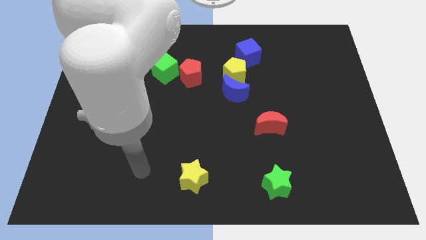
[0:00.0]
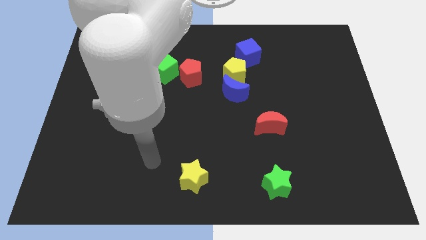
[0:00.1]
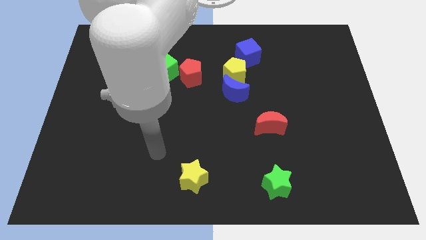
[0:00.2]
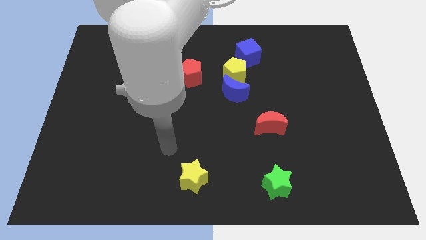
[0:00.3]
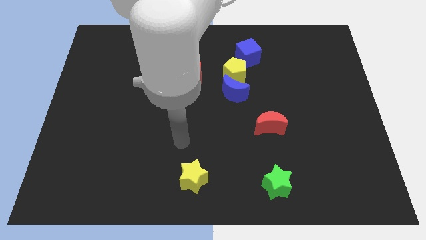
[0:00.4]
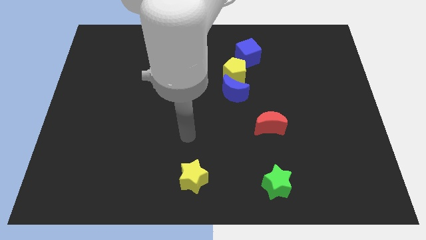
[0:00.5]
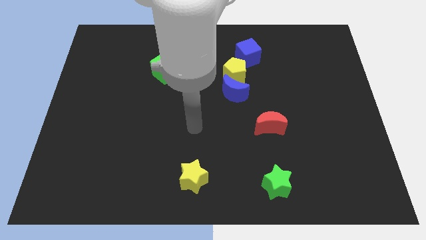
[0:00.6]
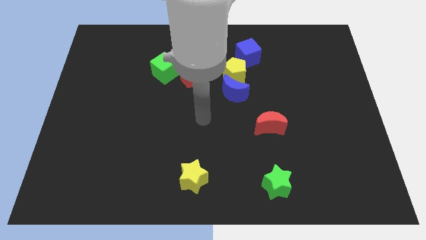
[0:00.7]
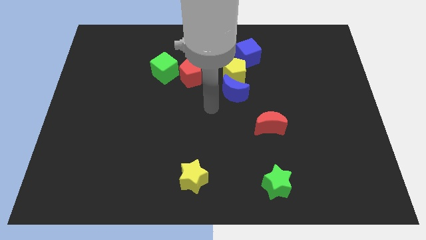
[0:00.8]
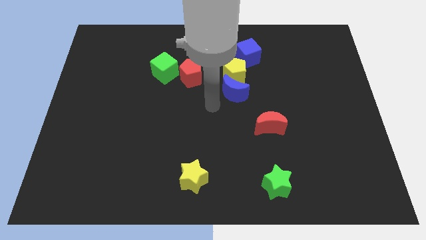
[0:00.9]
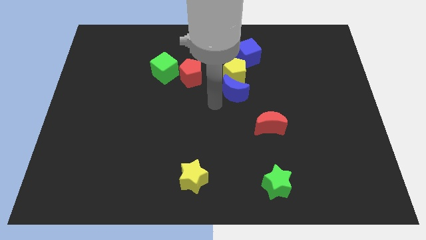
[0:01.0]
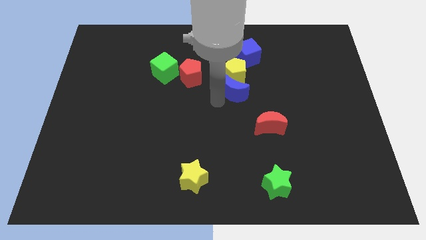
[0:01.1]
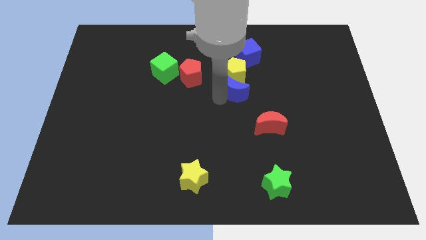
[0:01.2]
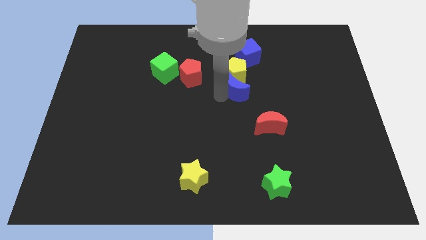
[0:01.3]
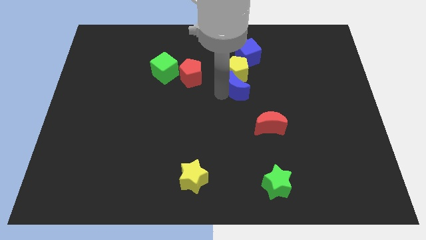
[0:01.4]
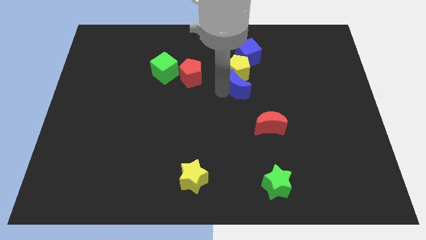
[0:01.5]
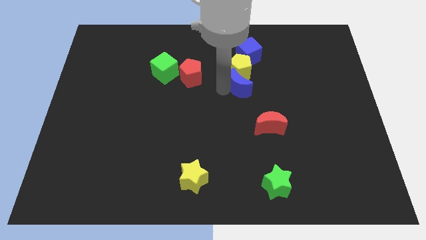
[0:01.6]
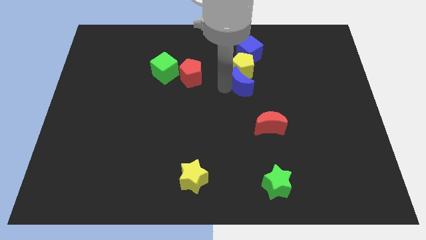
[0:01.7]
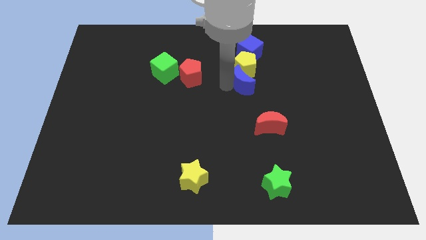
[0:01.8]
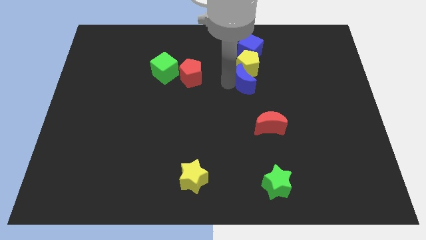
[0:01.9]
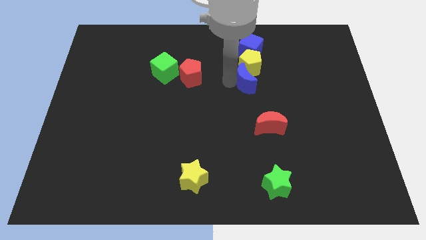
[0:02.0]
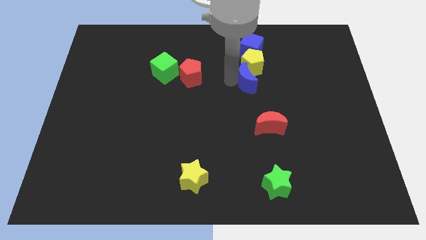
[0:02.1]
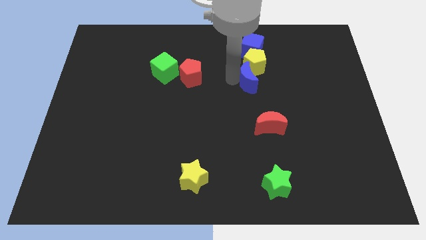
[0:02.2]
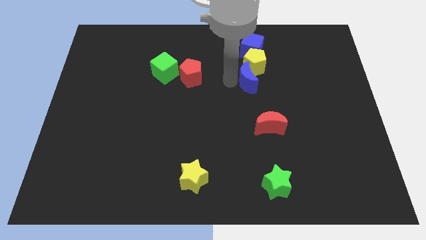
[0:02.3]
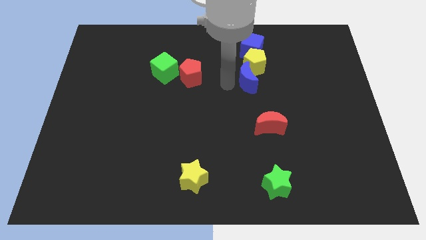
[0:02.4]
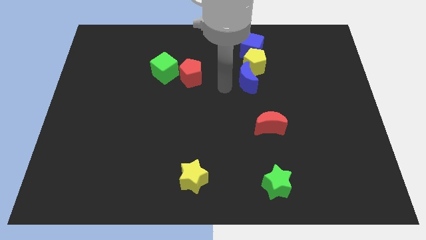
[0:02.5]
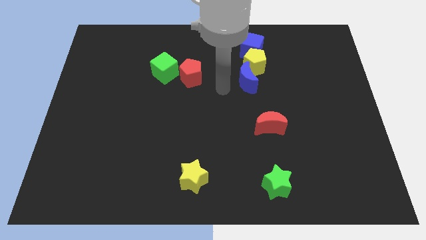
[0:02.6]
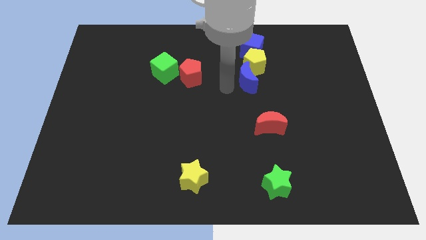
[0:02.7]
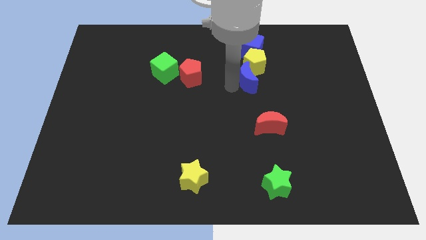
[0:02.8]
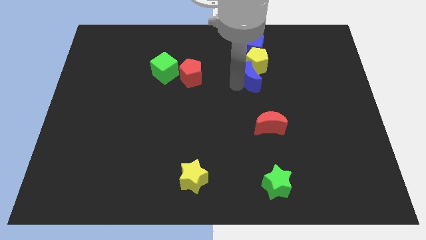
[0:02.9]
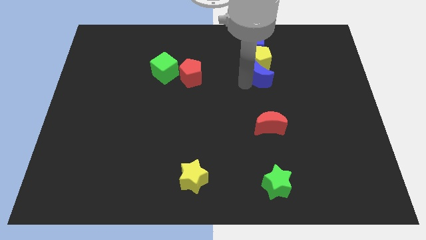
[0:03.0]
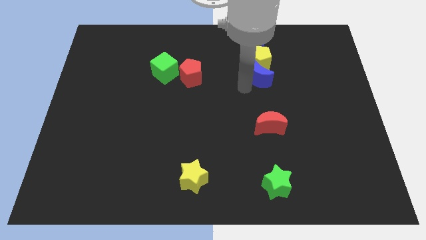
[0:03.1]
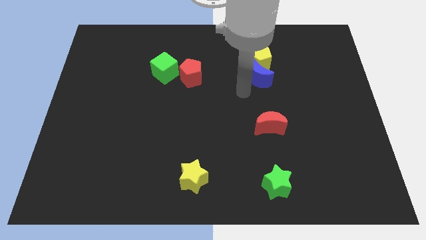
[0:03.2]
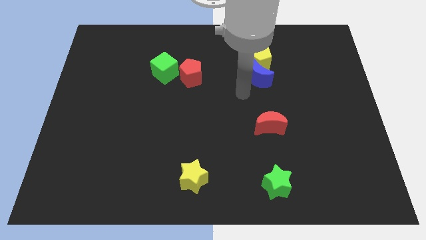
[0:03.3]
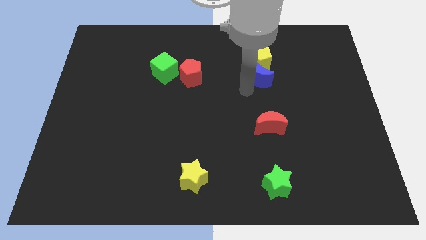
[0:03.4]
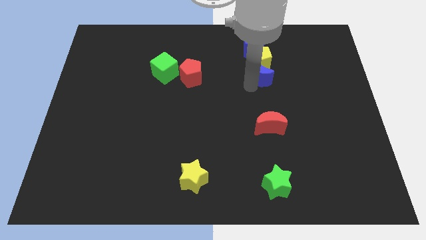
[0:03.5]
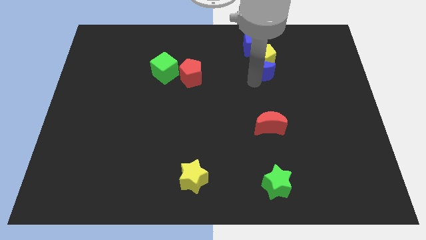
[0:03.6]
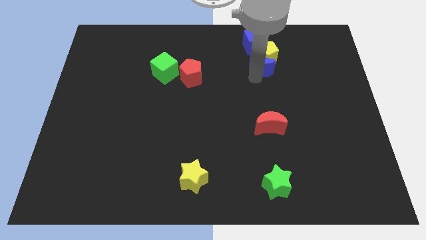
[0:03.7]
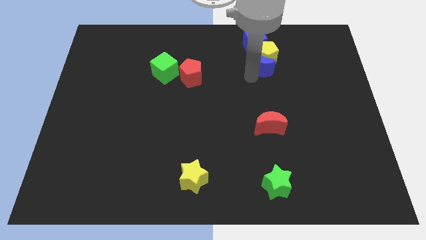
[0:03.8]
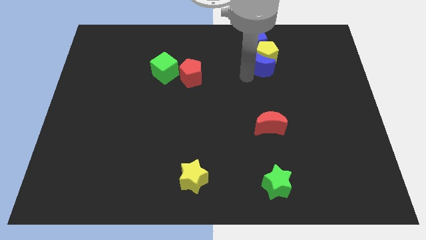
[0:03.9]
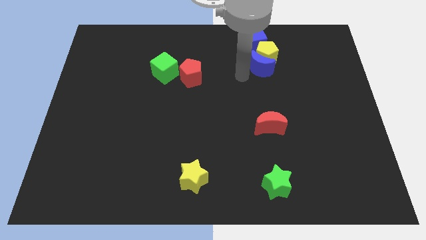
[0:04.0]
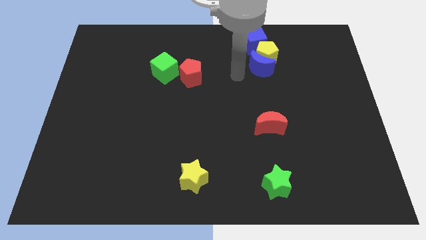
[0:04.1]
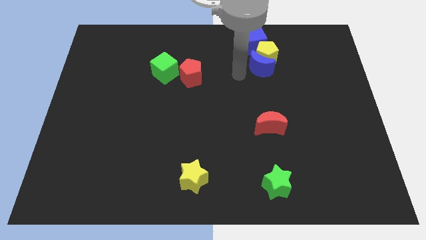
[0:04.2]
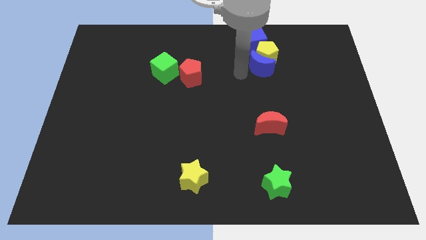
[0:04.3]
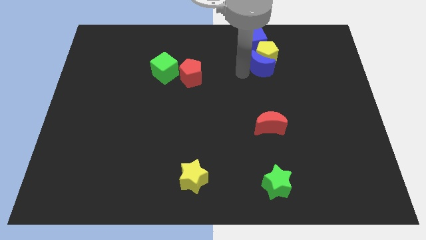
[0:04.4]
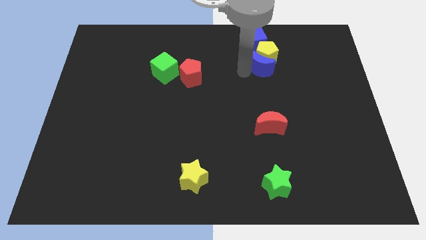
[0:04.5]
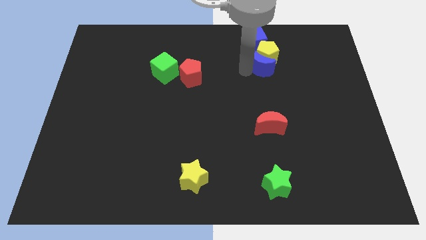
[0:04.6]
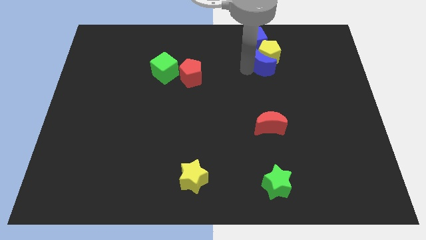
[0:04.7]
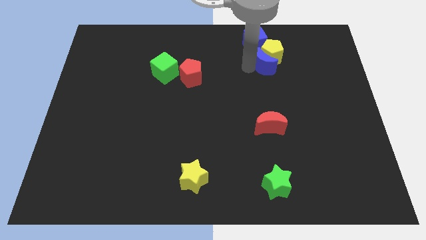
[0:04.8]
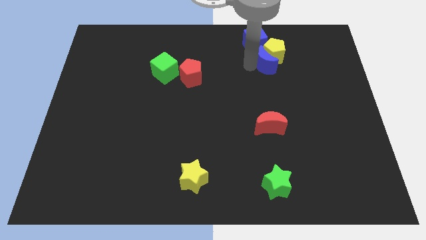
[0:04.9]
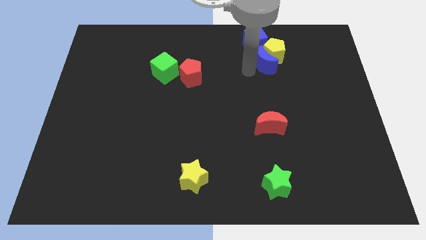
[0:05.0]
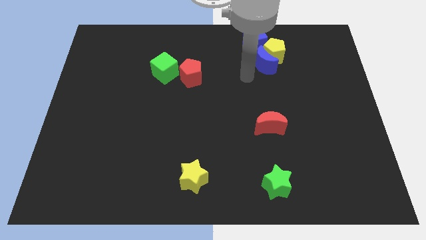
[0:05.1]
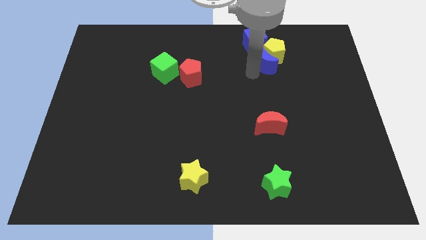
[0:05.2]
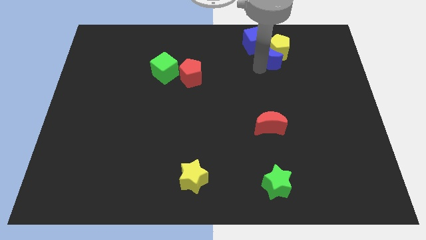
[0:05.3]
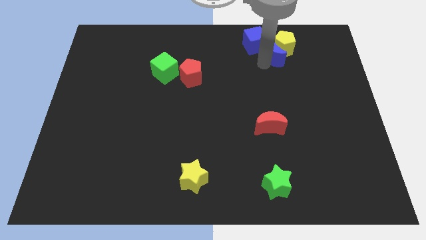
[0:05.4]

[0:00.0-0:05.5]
move the blue moon right of the blue cube

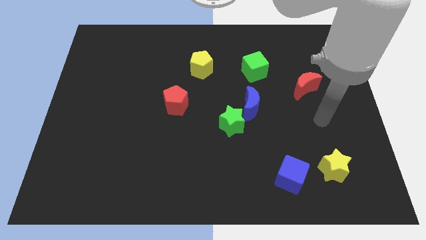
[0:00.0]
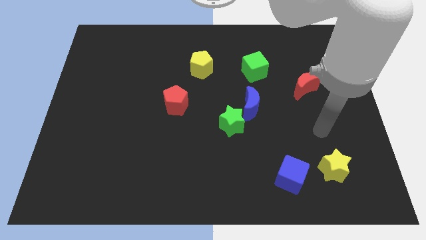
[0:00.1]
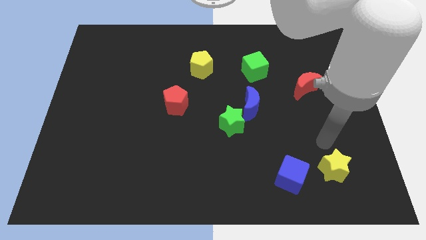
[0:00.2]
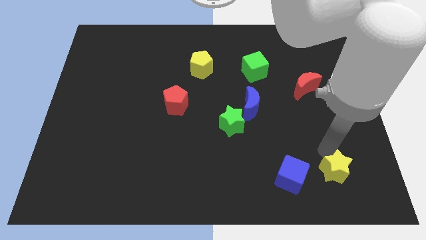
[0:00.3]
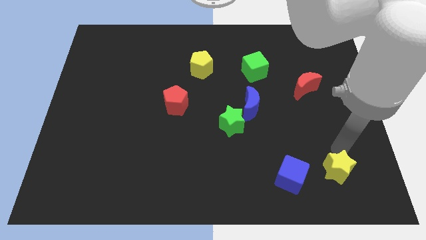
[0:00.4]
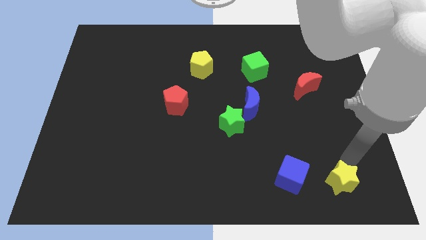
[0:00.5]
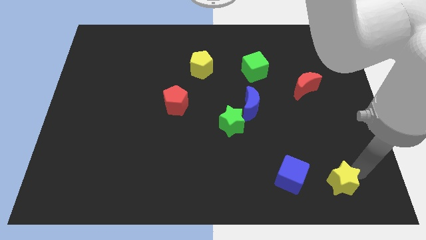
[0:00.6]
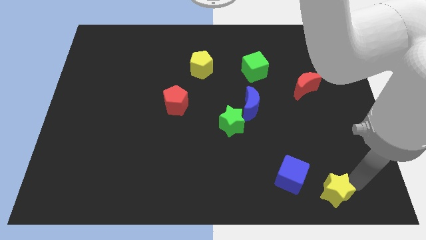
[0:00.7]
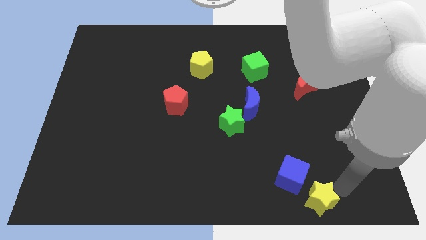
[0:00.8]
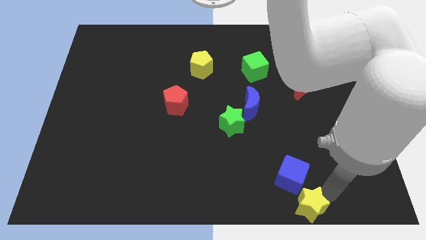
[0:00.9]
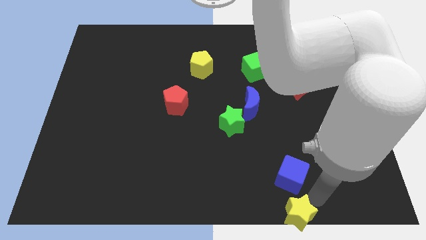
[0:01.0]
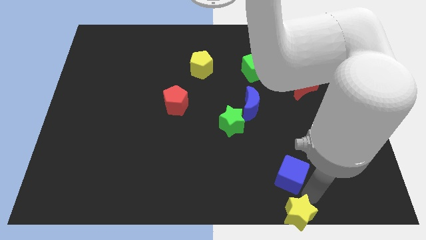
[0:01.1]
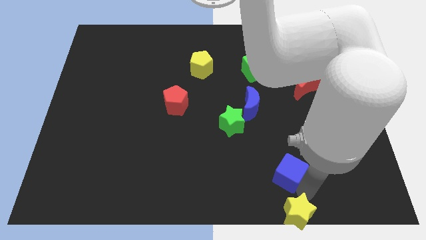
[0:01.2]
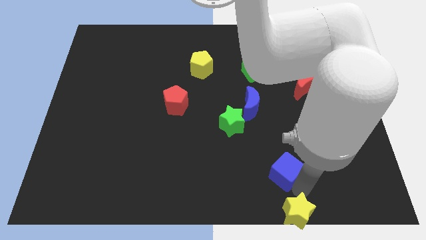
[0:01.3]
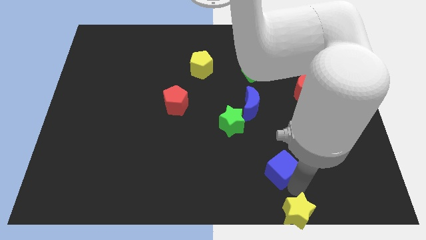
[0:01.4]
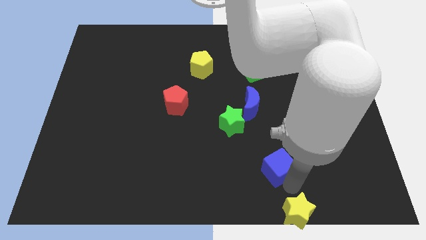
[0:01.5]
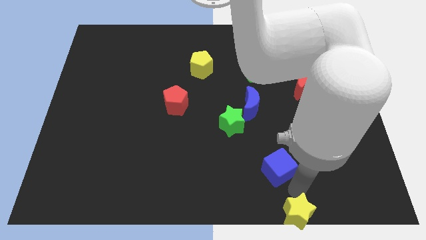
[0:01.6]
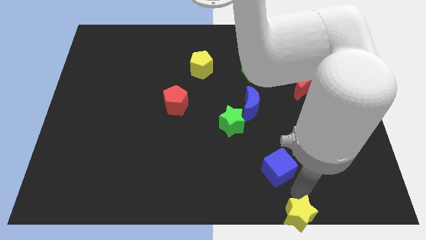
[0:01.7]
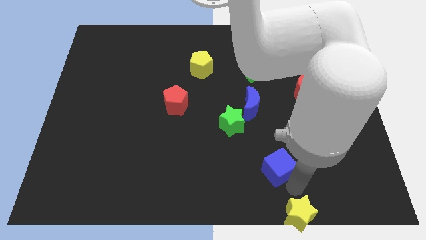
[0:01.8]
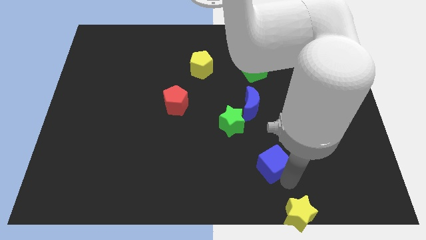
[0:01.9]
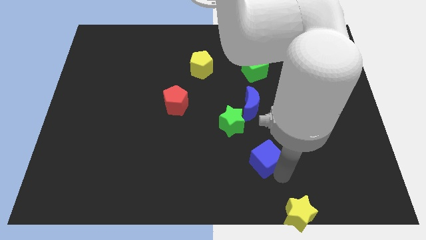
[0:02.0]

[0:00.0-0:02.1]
move the blue cube below the blue moon

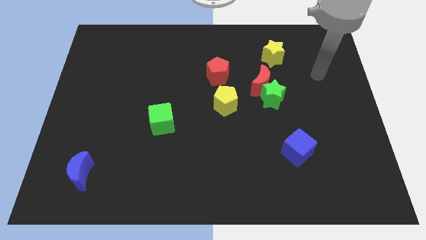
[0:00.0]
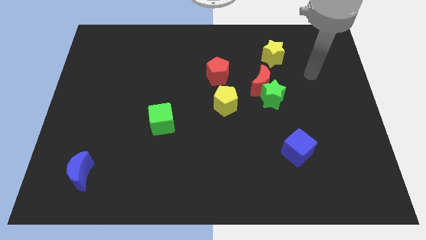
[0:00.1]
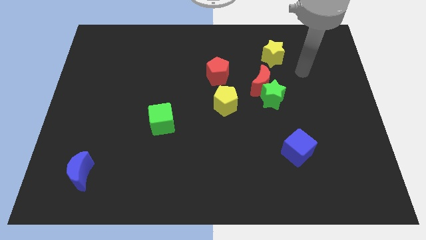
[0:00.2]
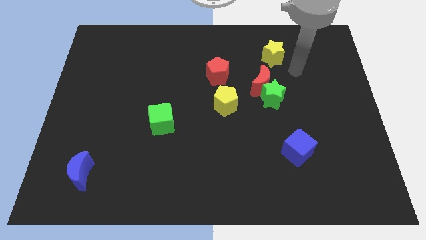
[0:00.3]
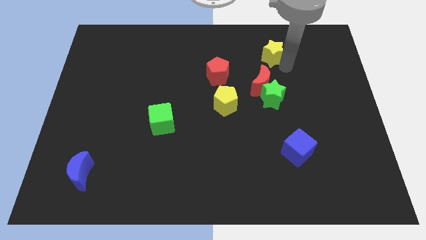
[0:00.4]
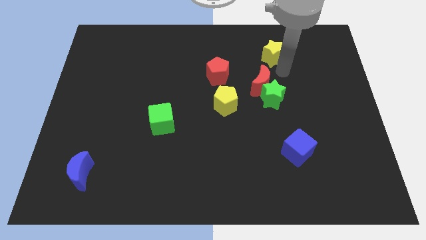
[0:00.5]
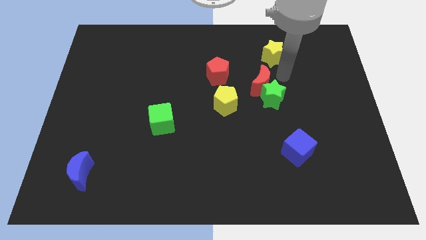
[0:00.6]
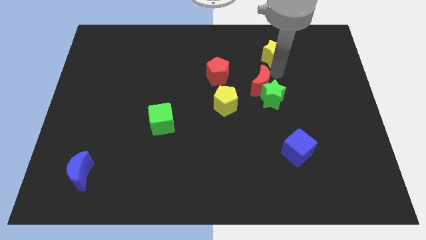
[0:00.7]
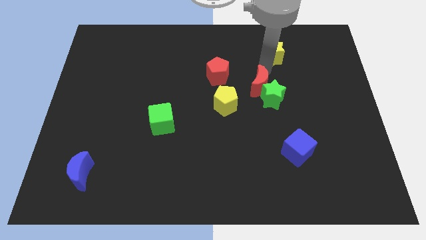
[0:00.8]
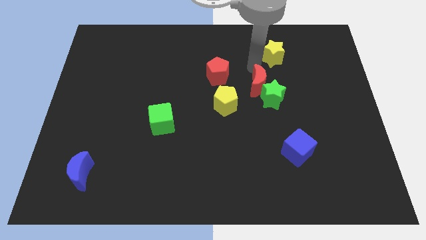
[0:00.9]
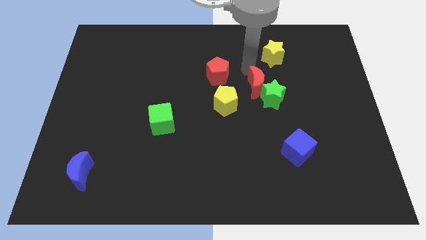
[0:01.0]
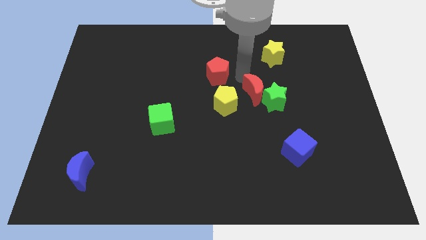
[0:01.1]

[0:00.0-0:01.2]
push the red moon to the right of the yellow pentagon
